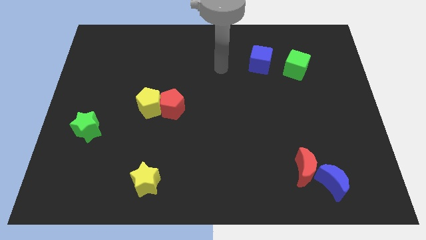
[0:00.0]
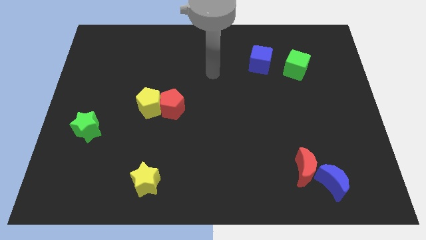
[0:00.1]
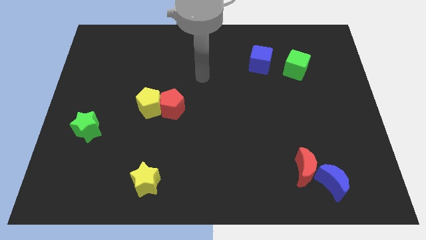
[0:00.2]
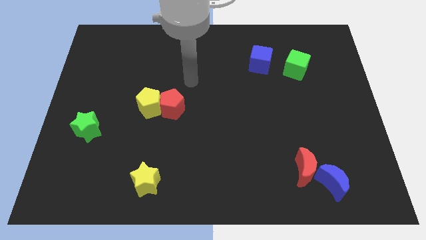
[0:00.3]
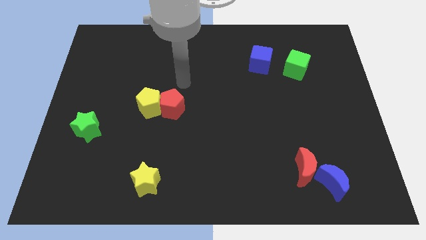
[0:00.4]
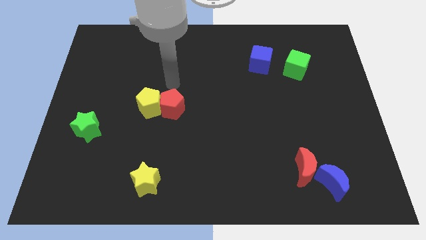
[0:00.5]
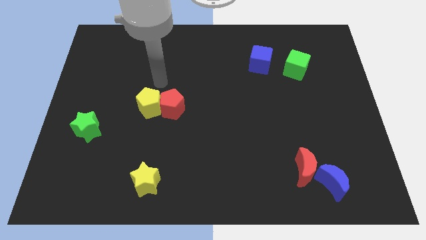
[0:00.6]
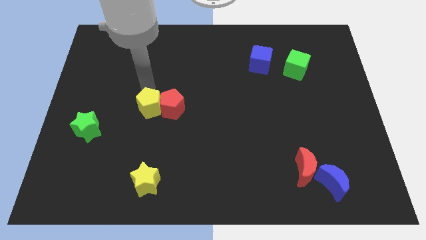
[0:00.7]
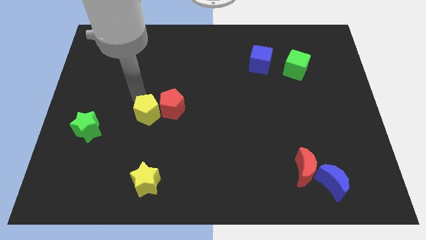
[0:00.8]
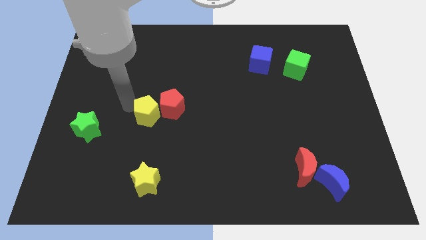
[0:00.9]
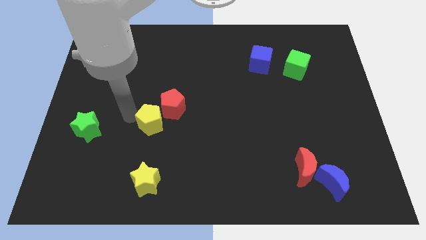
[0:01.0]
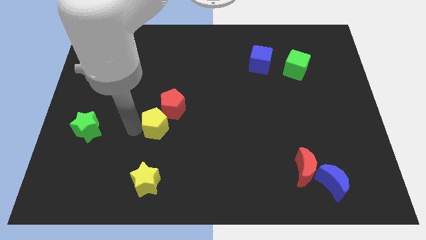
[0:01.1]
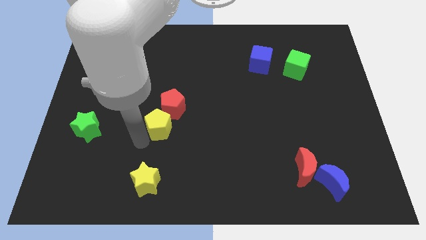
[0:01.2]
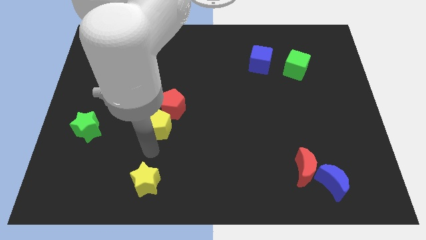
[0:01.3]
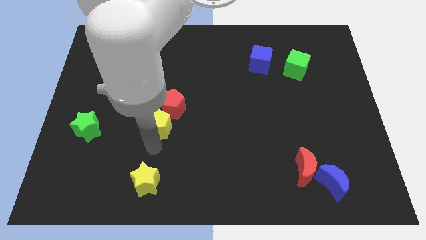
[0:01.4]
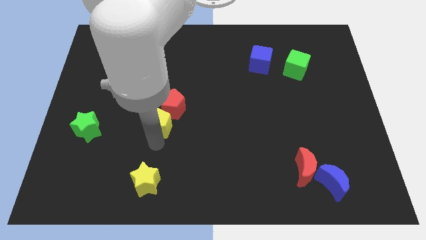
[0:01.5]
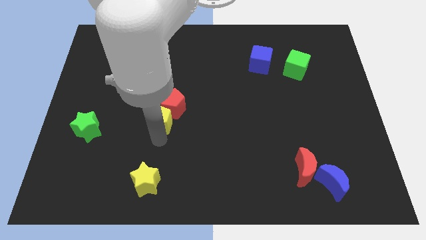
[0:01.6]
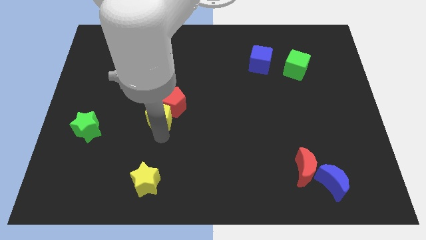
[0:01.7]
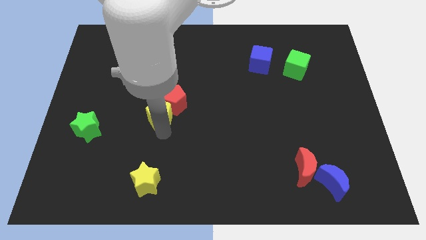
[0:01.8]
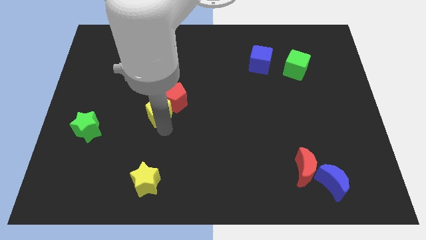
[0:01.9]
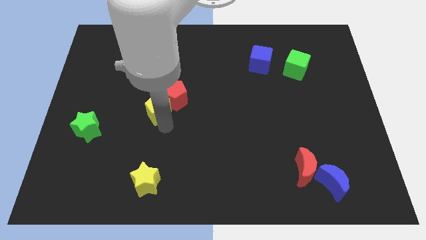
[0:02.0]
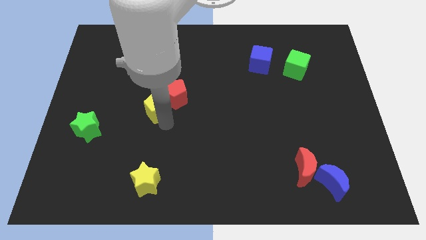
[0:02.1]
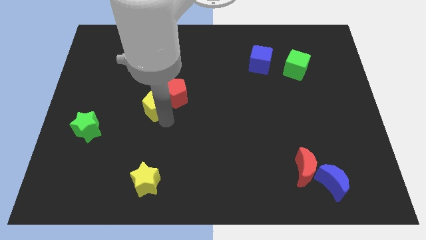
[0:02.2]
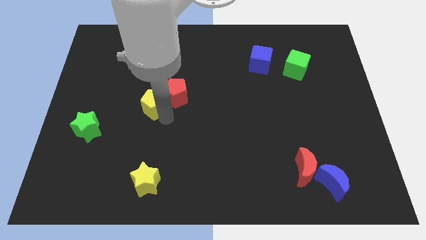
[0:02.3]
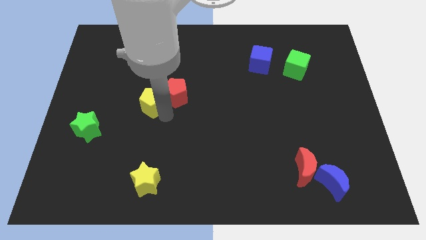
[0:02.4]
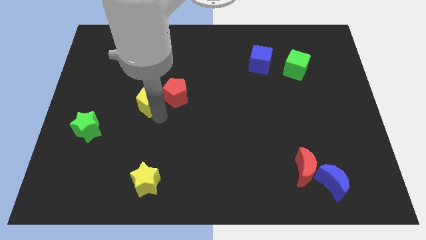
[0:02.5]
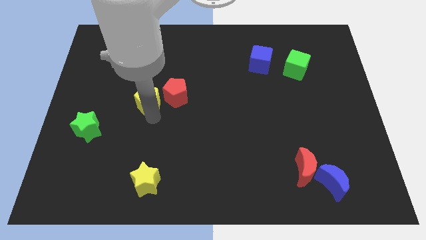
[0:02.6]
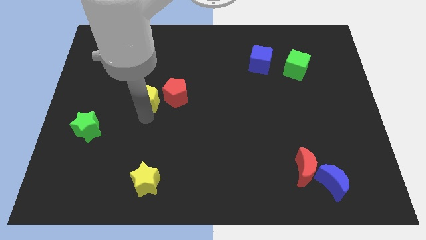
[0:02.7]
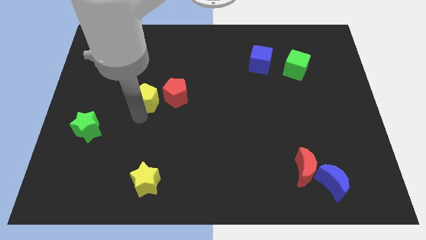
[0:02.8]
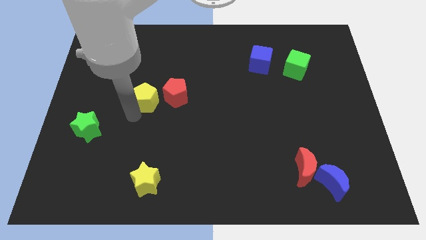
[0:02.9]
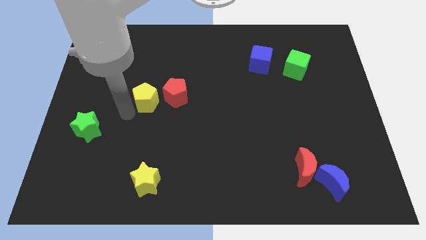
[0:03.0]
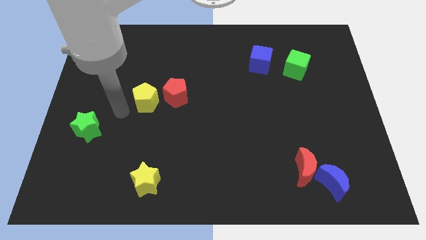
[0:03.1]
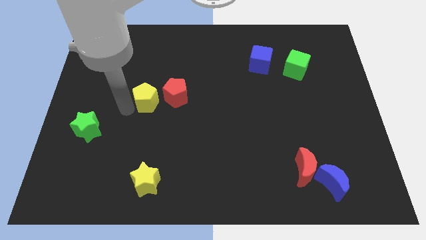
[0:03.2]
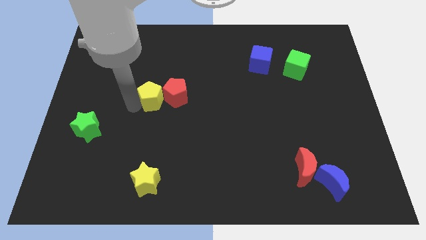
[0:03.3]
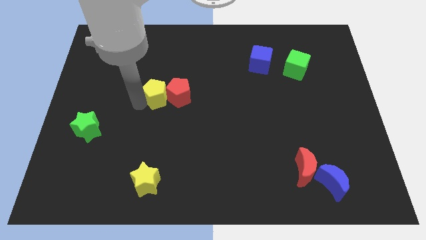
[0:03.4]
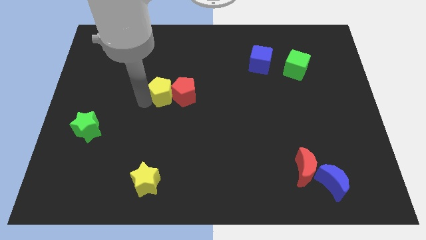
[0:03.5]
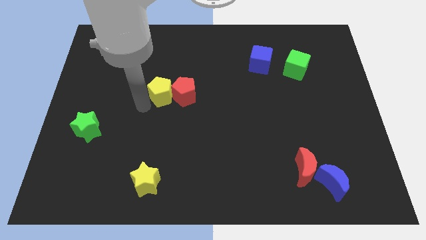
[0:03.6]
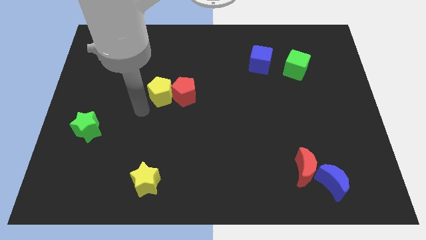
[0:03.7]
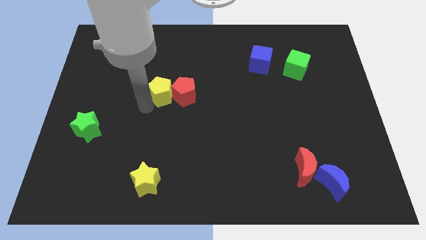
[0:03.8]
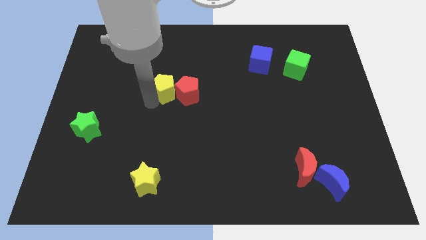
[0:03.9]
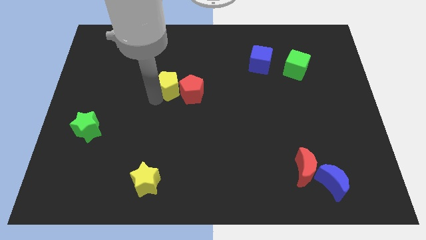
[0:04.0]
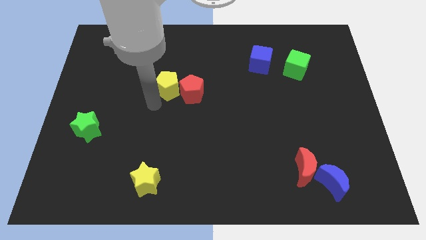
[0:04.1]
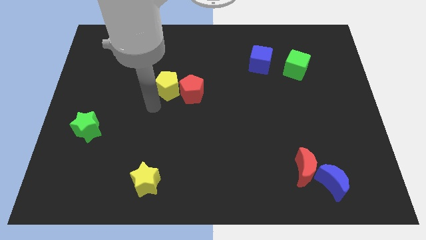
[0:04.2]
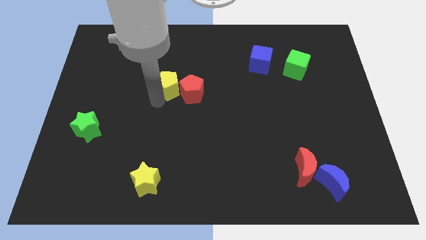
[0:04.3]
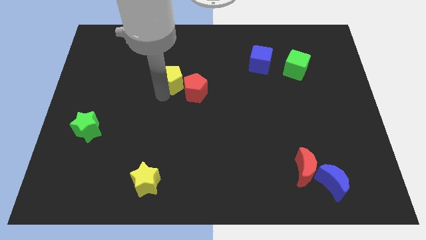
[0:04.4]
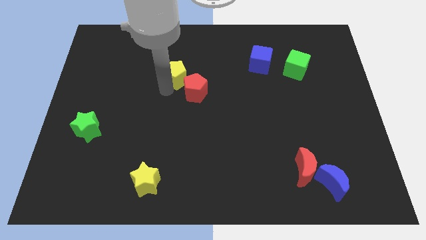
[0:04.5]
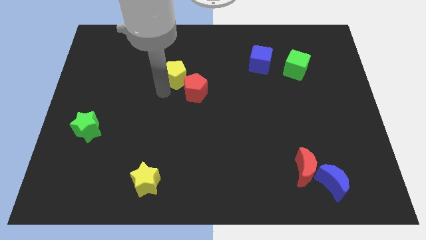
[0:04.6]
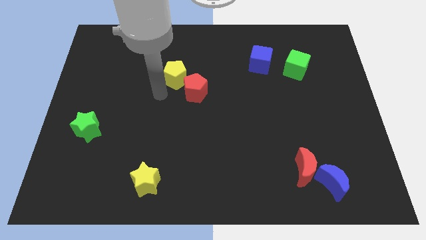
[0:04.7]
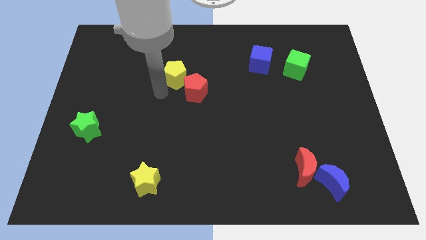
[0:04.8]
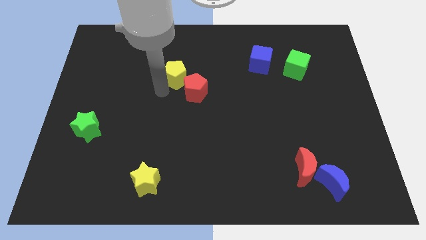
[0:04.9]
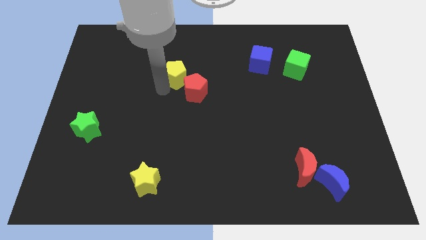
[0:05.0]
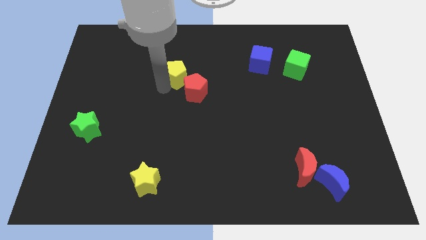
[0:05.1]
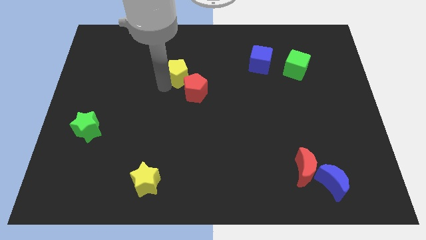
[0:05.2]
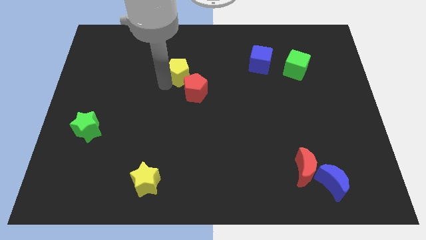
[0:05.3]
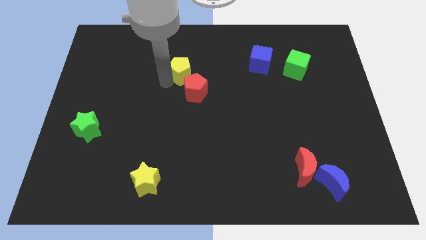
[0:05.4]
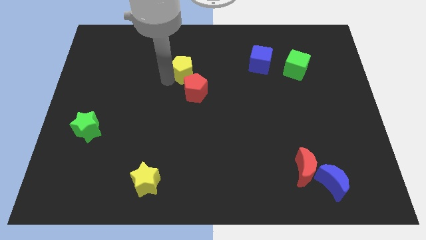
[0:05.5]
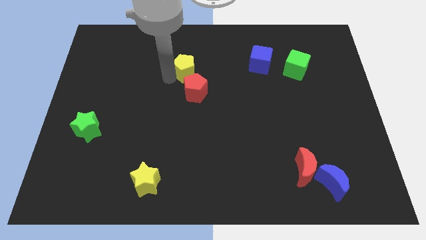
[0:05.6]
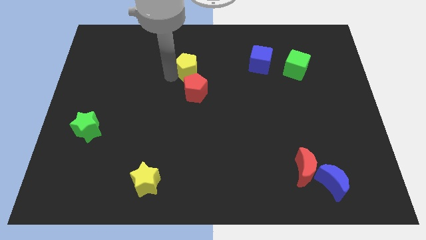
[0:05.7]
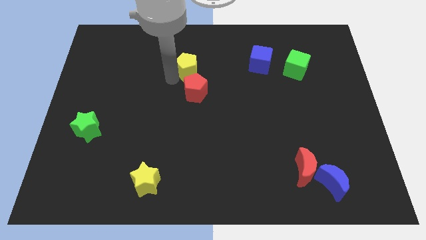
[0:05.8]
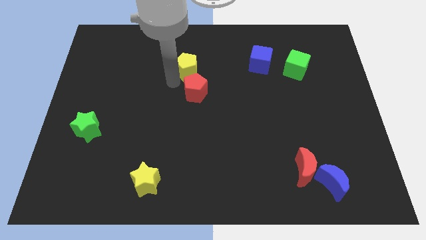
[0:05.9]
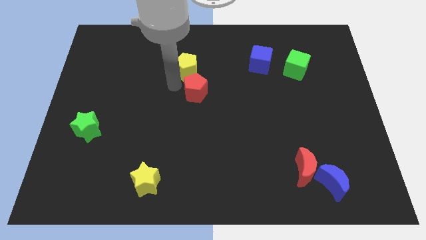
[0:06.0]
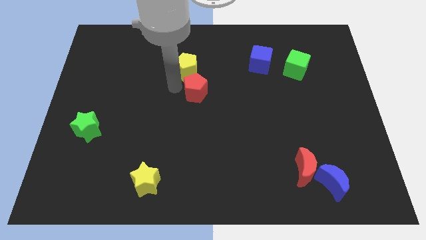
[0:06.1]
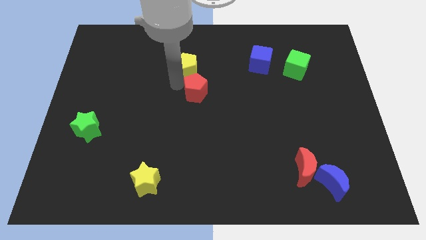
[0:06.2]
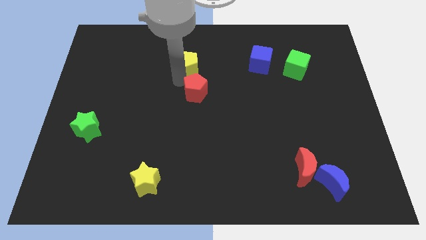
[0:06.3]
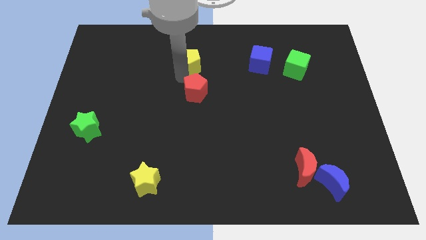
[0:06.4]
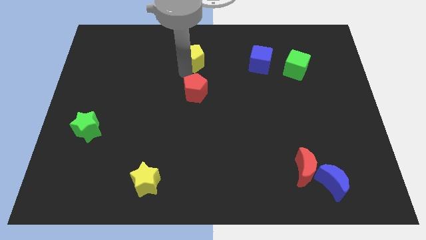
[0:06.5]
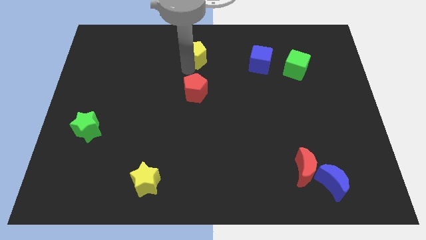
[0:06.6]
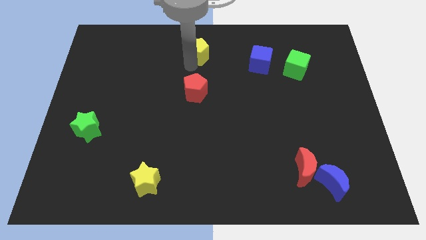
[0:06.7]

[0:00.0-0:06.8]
move the yellow pentagon to the top

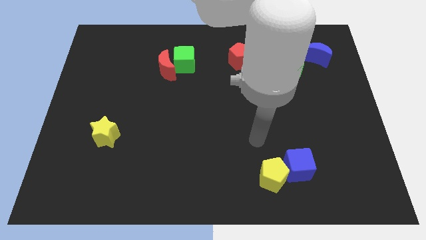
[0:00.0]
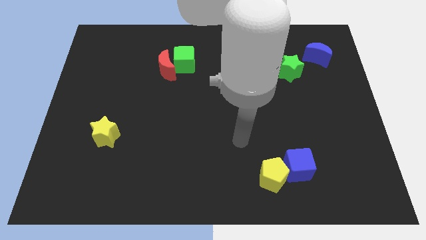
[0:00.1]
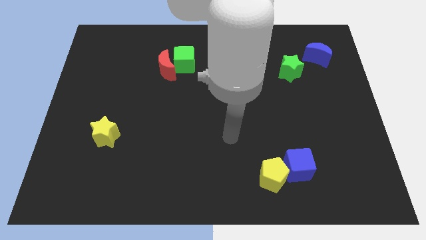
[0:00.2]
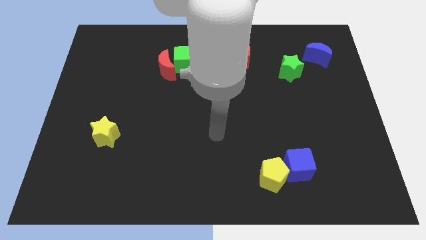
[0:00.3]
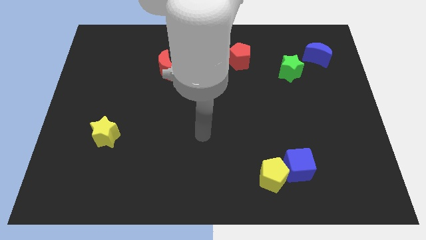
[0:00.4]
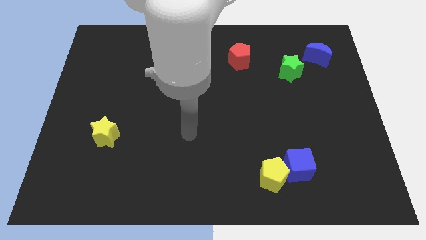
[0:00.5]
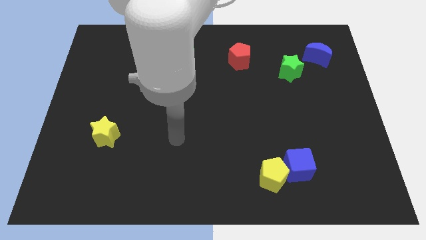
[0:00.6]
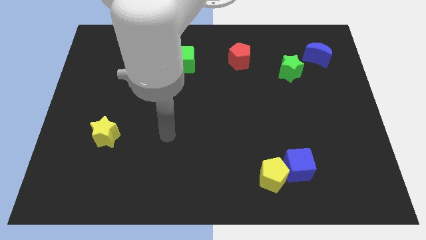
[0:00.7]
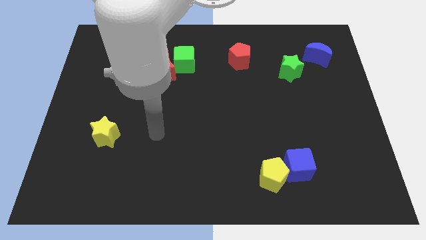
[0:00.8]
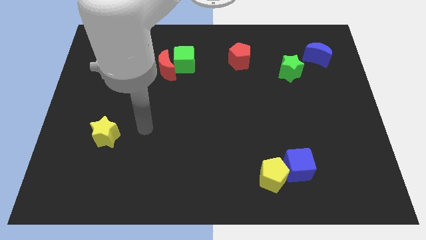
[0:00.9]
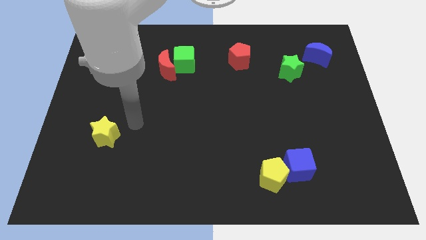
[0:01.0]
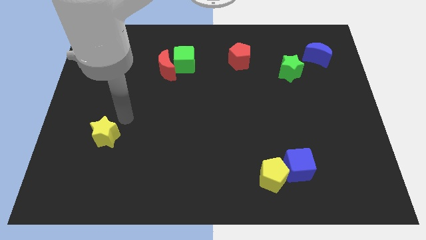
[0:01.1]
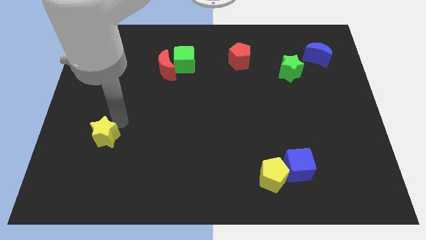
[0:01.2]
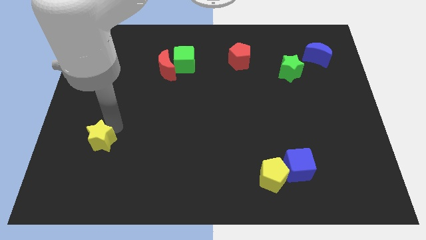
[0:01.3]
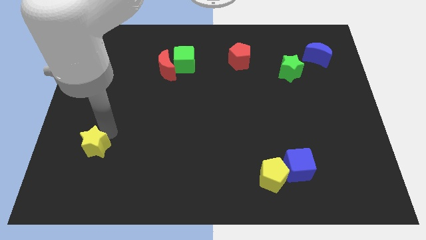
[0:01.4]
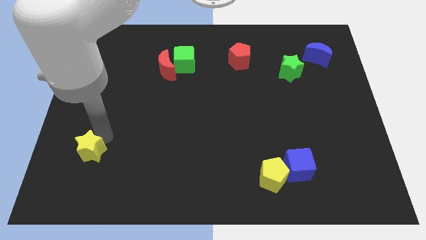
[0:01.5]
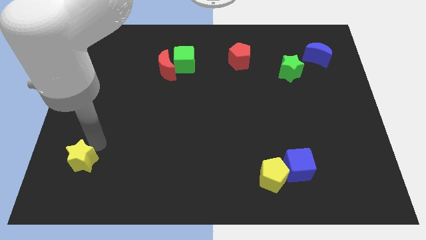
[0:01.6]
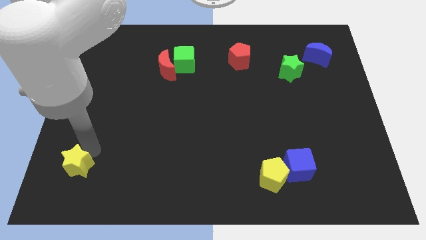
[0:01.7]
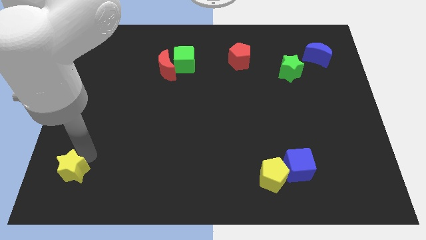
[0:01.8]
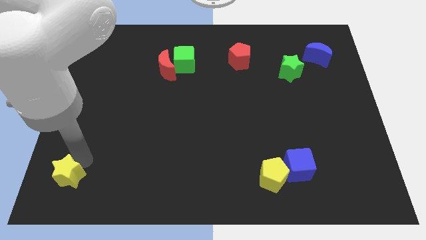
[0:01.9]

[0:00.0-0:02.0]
move the yellow star to the lower left corner
